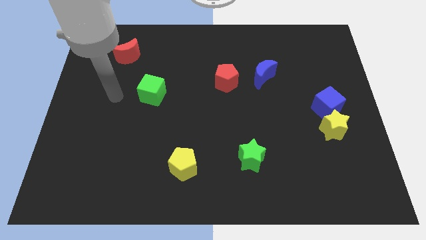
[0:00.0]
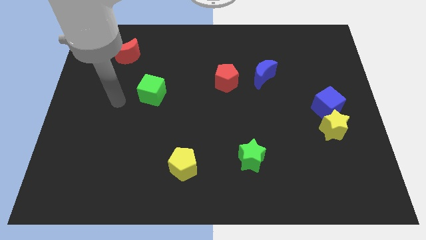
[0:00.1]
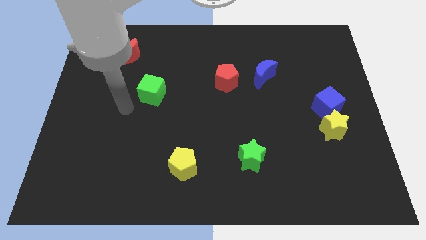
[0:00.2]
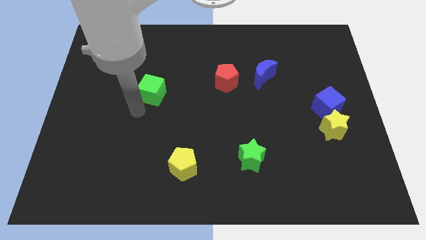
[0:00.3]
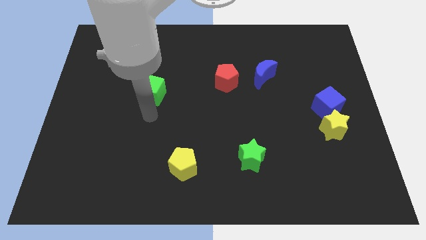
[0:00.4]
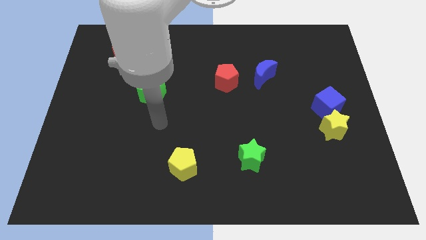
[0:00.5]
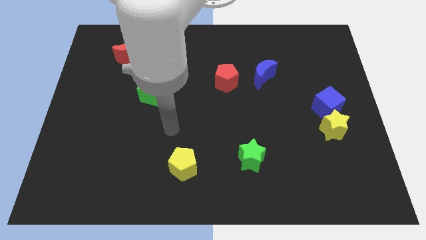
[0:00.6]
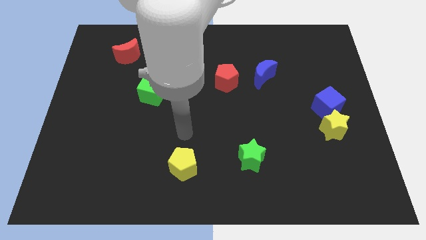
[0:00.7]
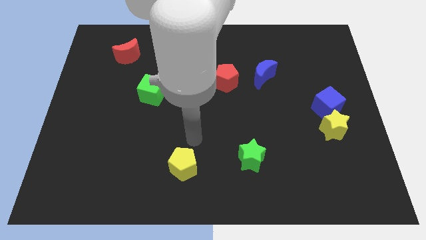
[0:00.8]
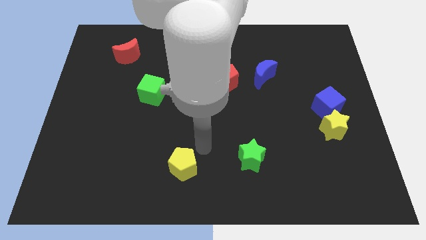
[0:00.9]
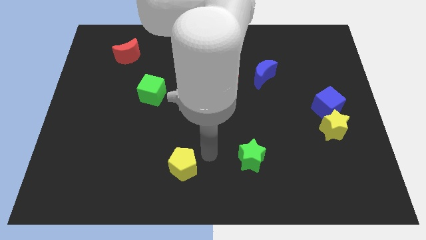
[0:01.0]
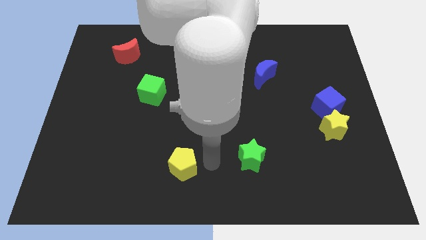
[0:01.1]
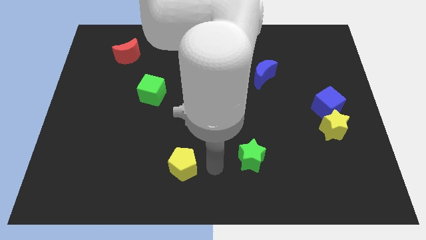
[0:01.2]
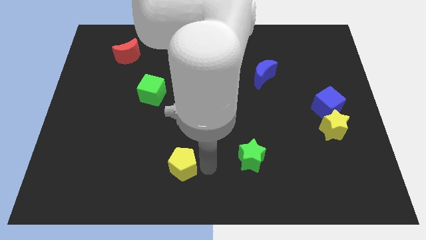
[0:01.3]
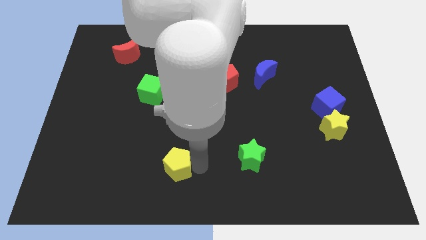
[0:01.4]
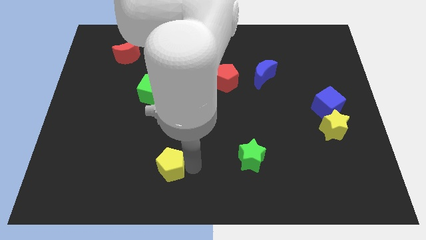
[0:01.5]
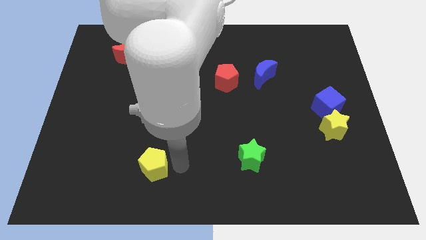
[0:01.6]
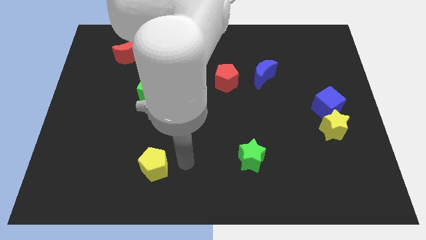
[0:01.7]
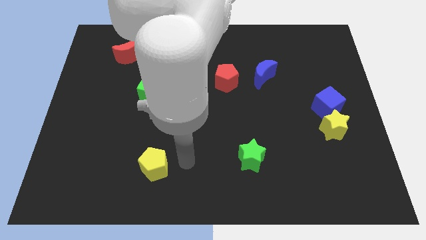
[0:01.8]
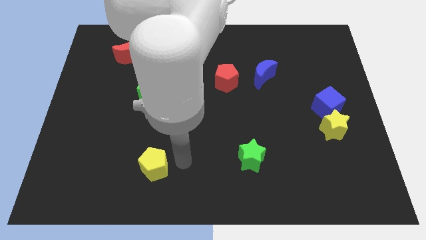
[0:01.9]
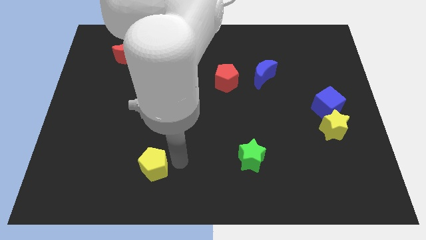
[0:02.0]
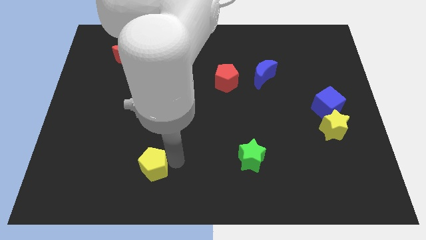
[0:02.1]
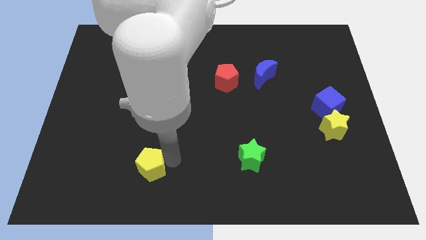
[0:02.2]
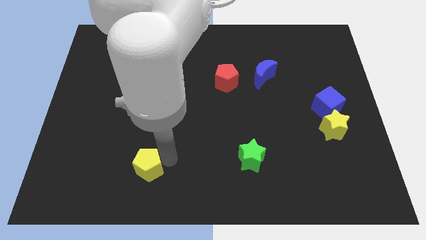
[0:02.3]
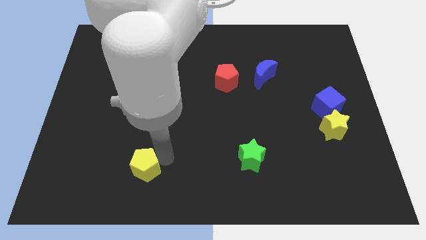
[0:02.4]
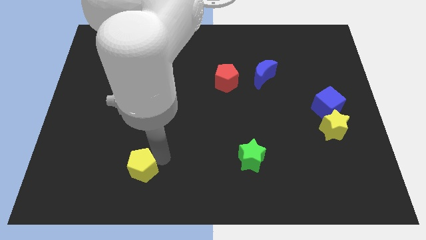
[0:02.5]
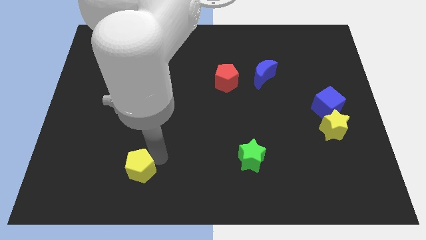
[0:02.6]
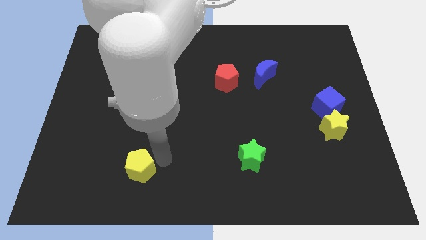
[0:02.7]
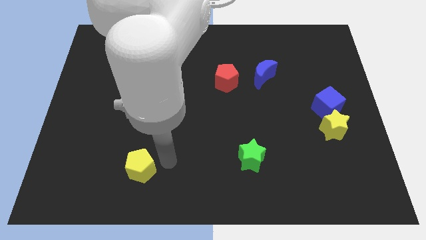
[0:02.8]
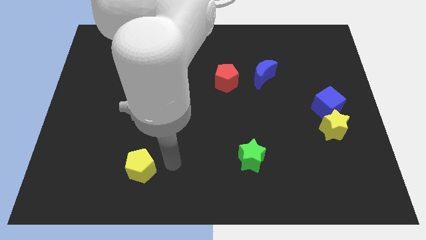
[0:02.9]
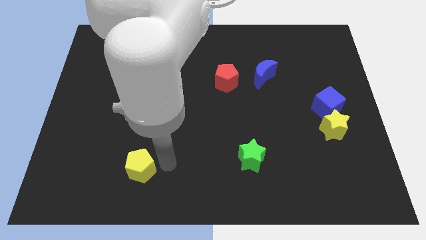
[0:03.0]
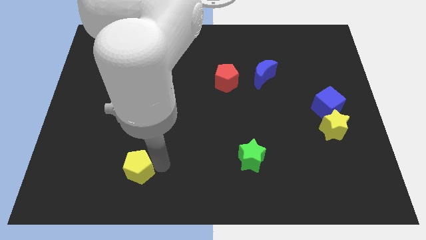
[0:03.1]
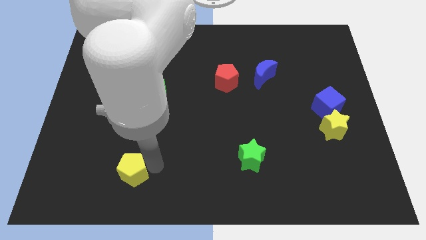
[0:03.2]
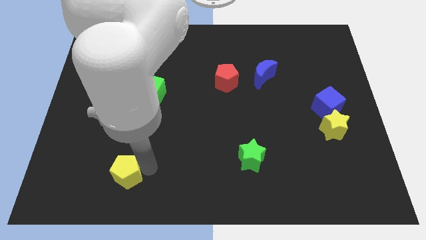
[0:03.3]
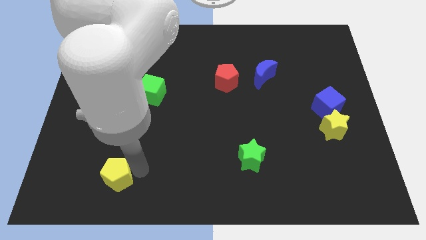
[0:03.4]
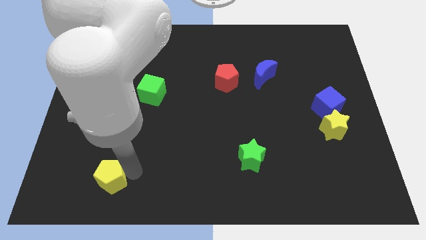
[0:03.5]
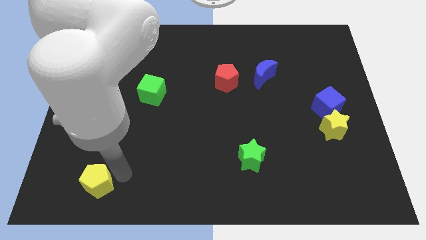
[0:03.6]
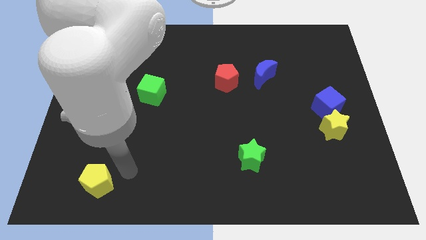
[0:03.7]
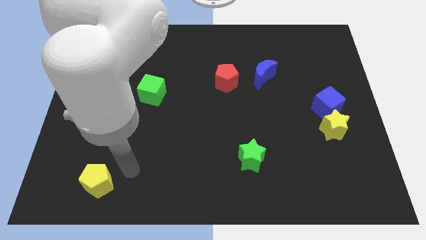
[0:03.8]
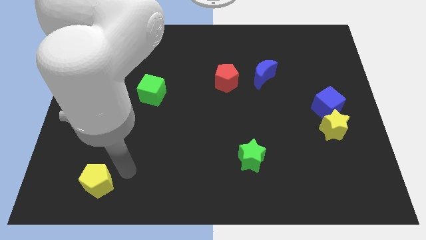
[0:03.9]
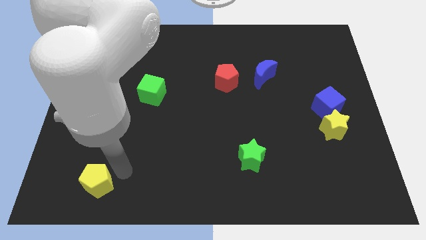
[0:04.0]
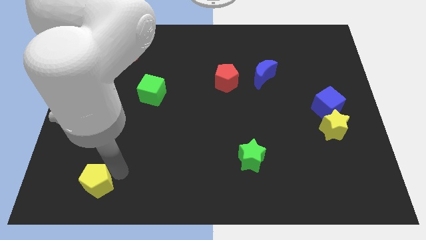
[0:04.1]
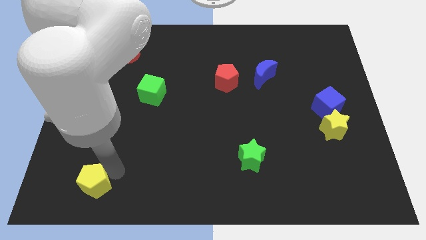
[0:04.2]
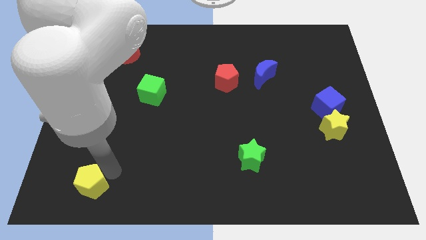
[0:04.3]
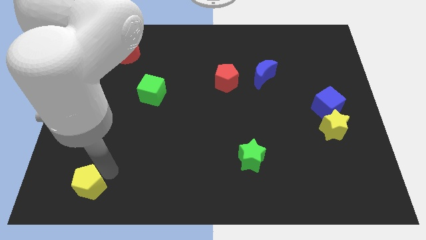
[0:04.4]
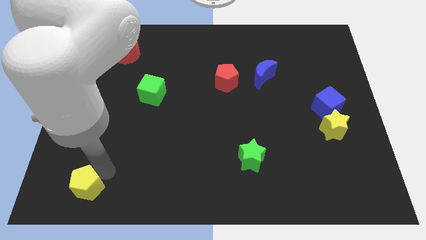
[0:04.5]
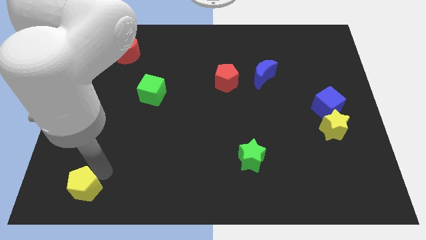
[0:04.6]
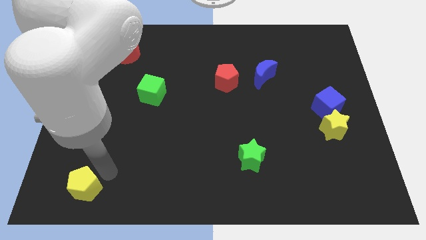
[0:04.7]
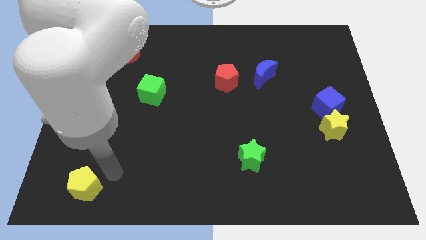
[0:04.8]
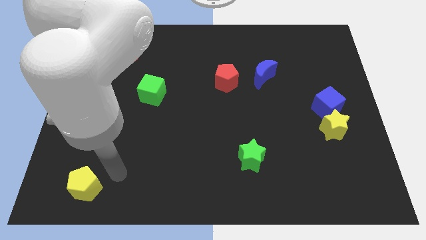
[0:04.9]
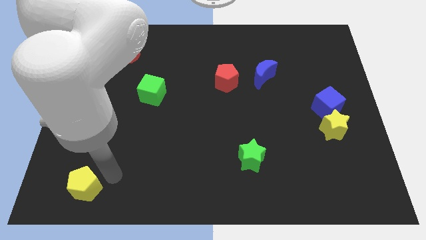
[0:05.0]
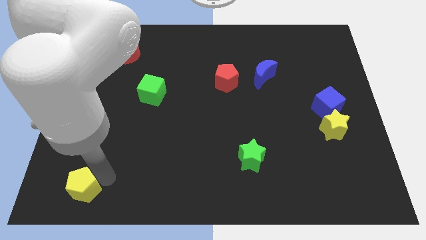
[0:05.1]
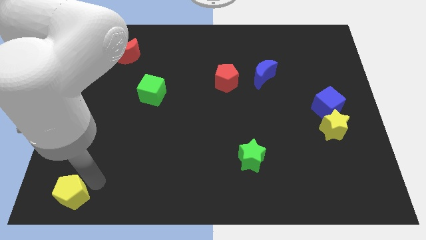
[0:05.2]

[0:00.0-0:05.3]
move the yellow pentagon to the bottom left of the board

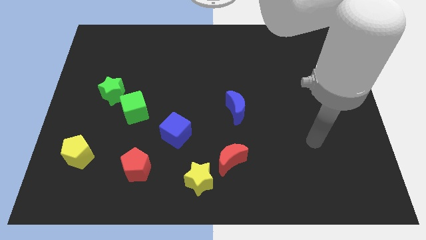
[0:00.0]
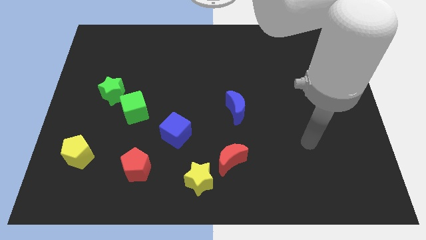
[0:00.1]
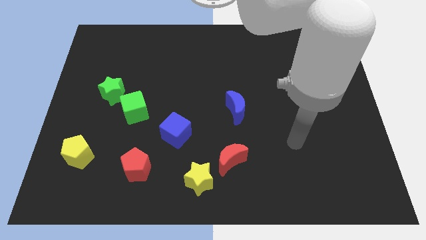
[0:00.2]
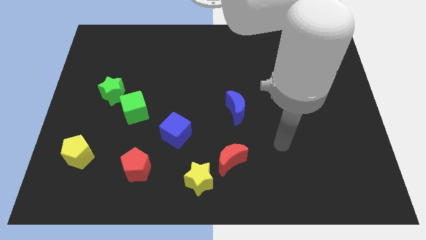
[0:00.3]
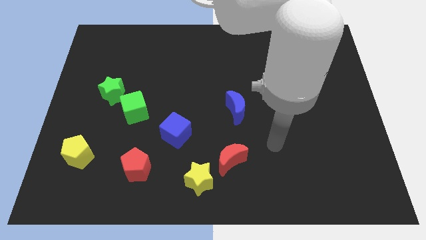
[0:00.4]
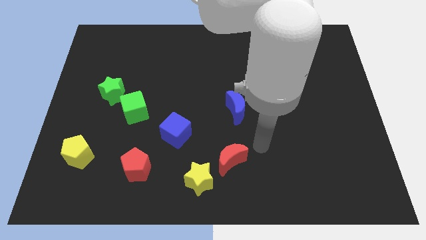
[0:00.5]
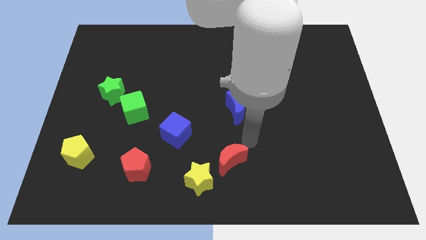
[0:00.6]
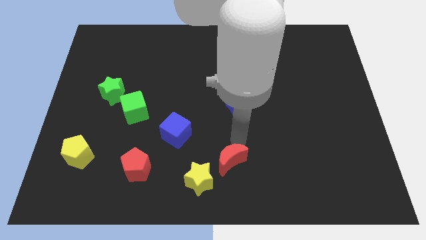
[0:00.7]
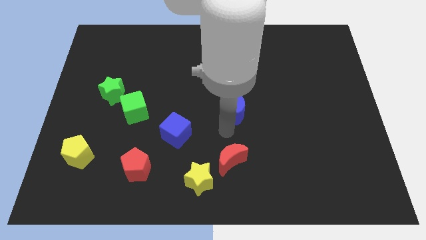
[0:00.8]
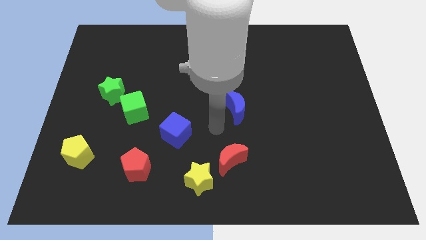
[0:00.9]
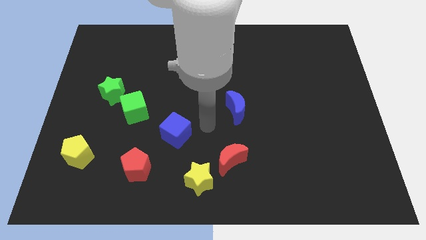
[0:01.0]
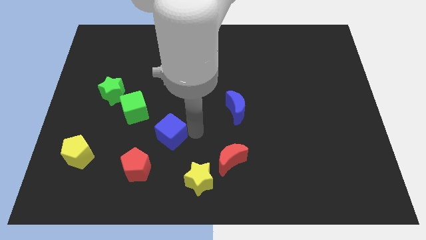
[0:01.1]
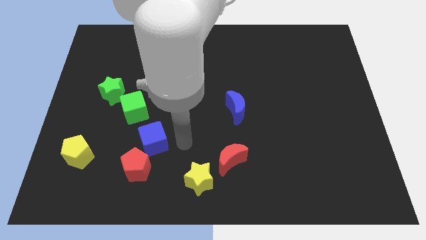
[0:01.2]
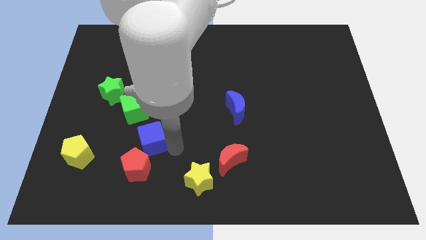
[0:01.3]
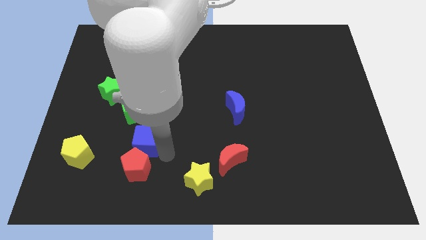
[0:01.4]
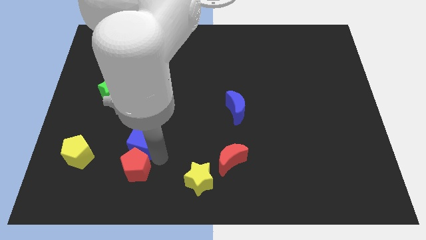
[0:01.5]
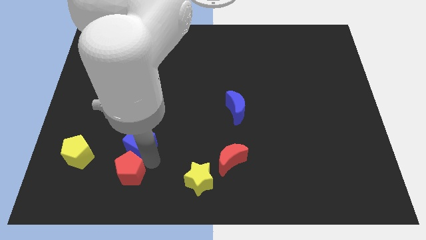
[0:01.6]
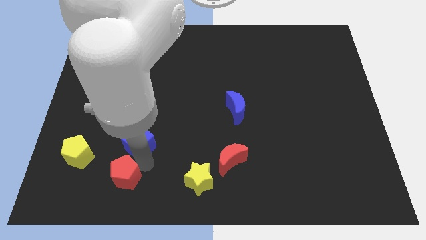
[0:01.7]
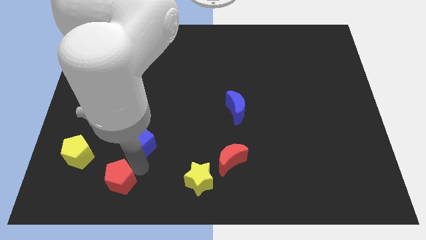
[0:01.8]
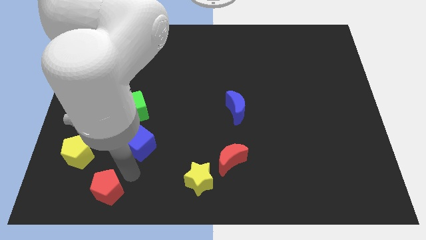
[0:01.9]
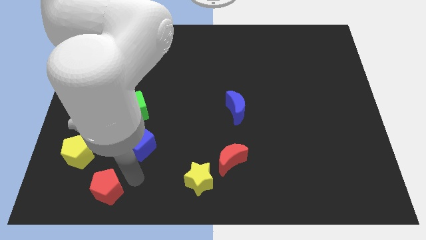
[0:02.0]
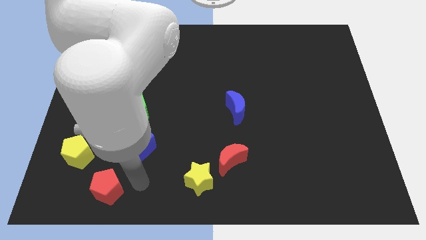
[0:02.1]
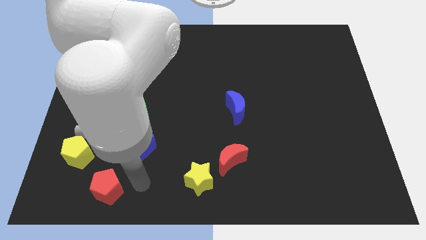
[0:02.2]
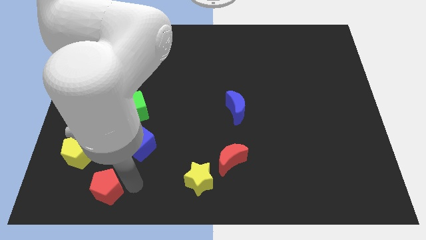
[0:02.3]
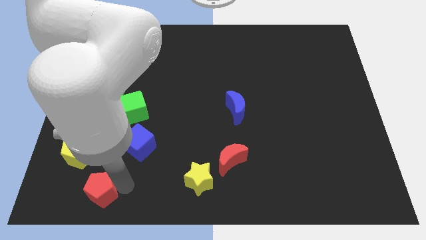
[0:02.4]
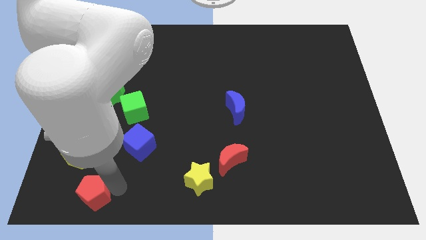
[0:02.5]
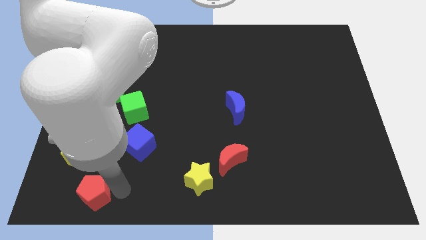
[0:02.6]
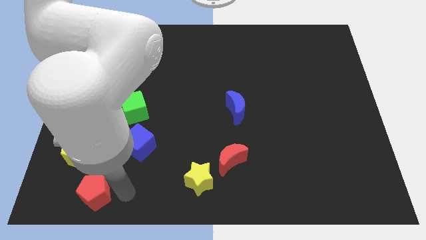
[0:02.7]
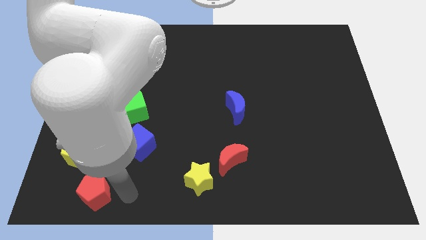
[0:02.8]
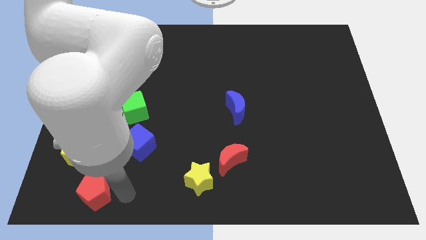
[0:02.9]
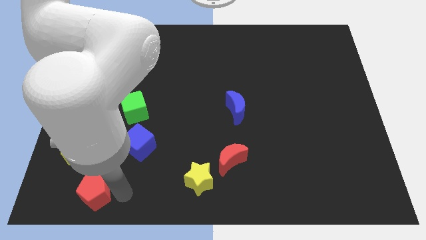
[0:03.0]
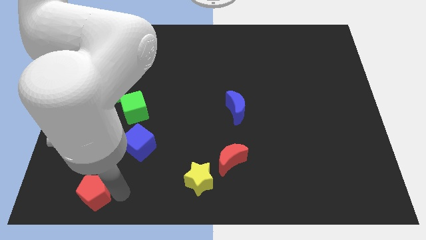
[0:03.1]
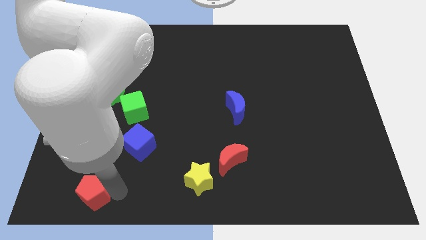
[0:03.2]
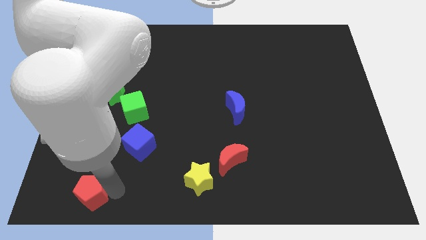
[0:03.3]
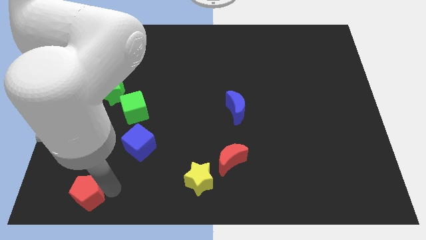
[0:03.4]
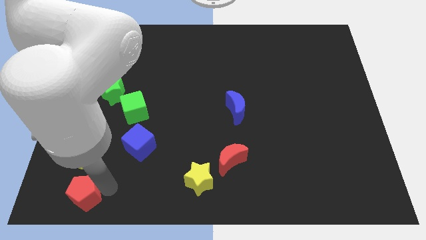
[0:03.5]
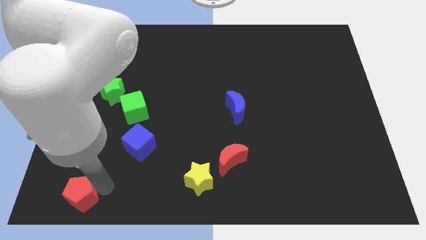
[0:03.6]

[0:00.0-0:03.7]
push the red pentagon to the bottom left of the board
